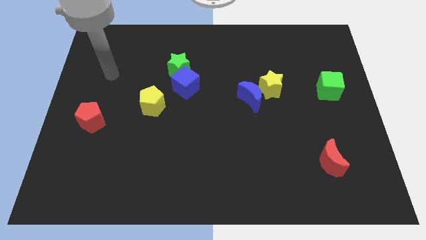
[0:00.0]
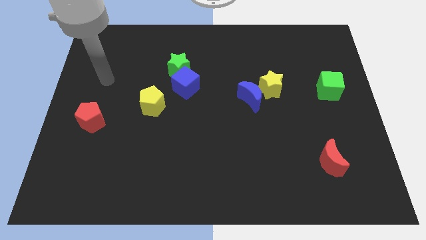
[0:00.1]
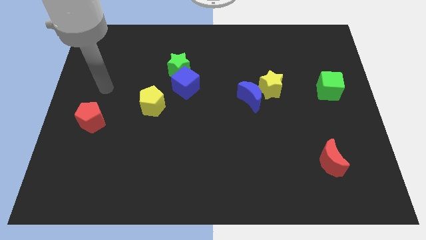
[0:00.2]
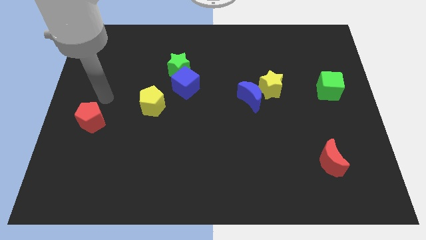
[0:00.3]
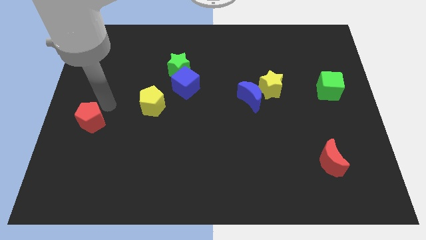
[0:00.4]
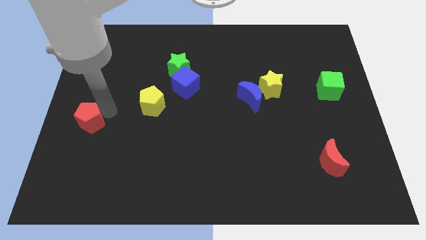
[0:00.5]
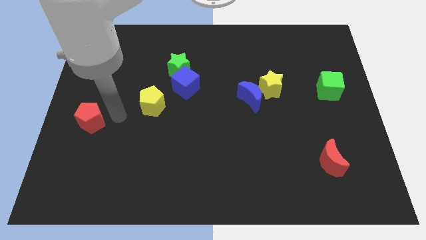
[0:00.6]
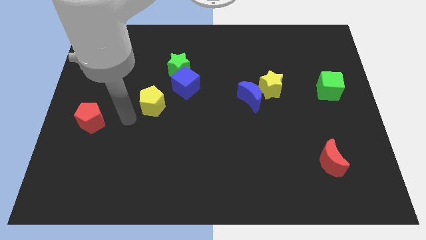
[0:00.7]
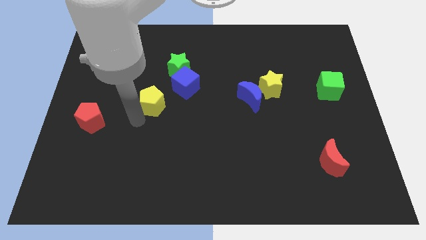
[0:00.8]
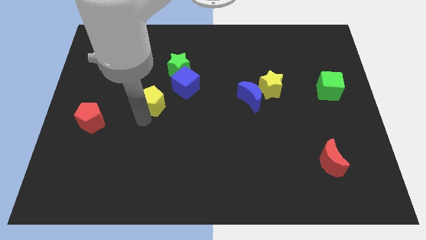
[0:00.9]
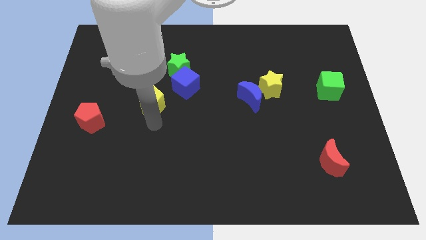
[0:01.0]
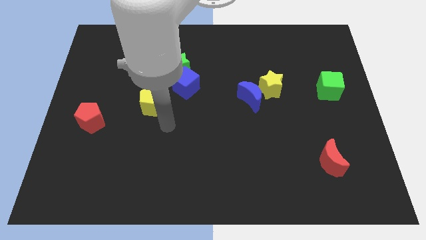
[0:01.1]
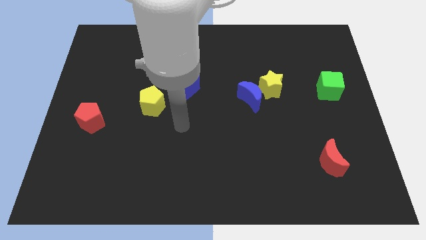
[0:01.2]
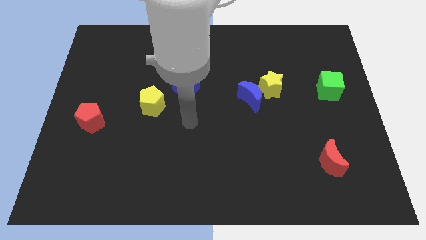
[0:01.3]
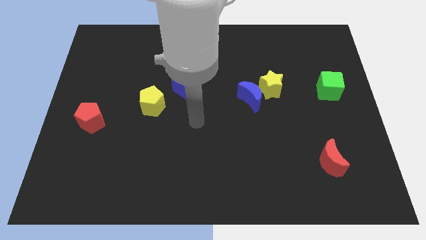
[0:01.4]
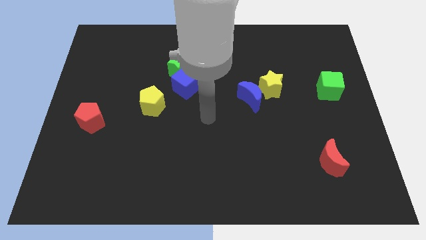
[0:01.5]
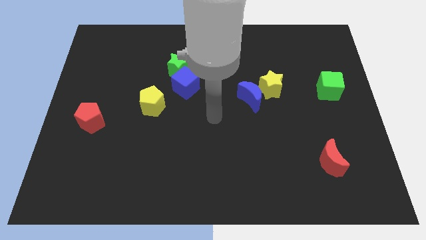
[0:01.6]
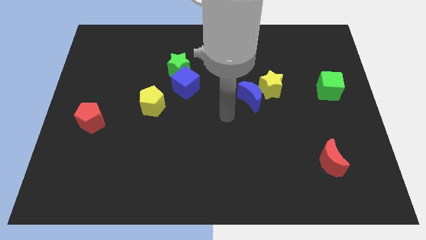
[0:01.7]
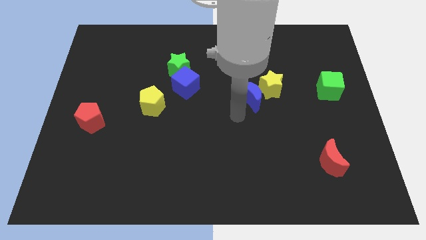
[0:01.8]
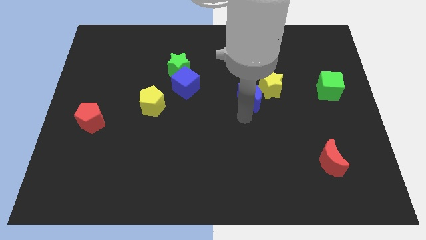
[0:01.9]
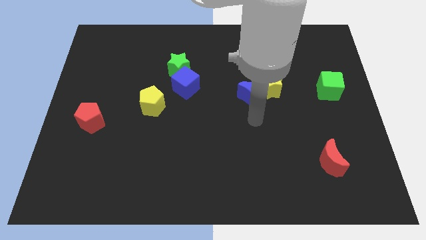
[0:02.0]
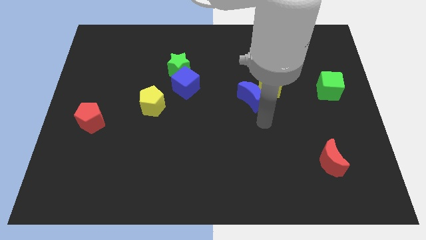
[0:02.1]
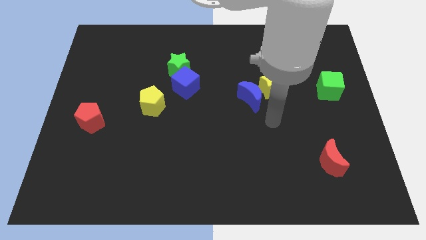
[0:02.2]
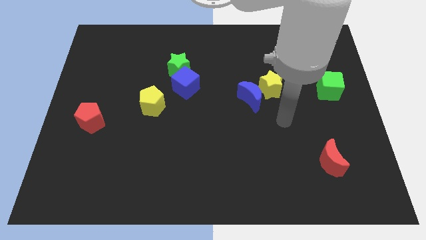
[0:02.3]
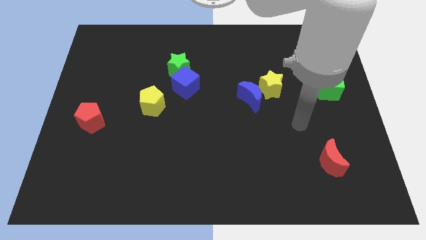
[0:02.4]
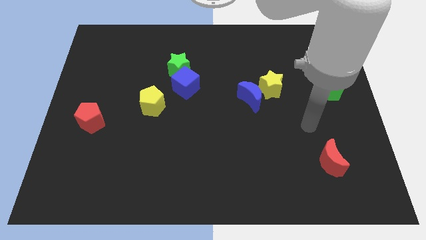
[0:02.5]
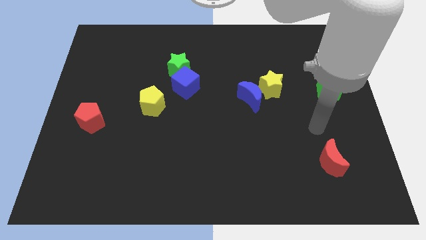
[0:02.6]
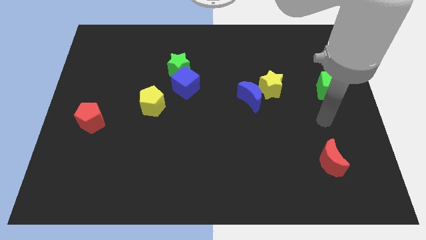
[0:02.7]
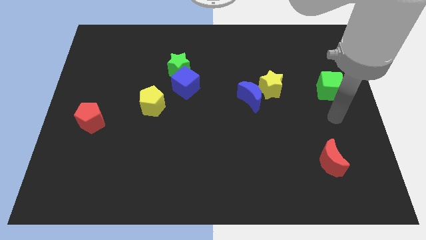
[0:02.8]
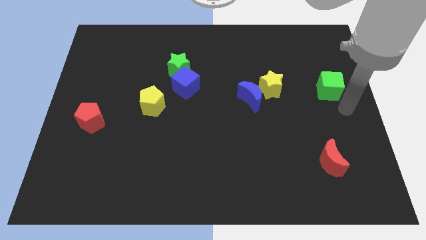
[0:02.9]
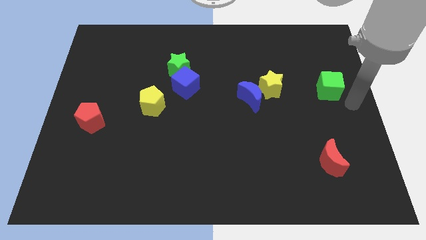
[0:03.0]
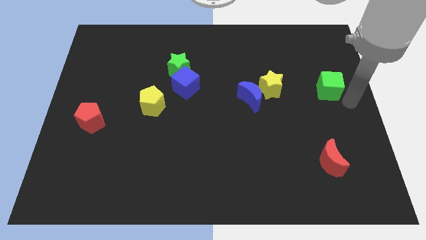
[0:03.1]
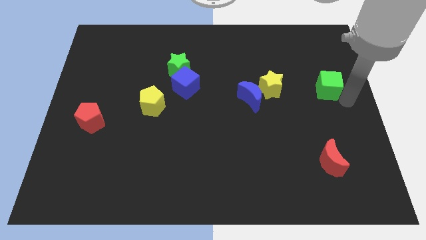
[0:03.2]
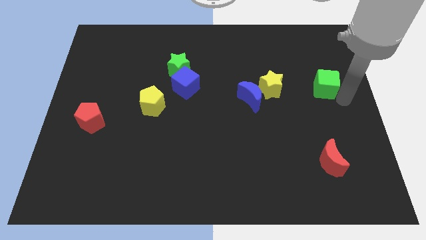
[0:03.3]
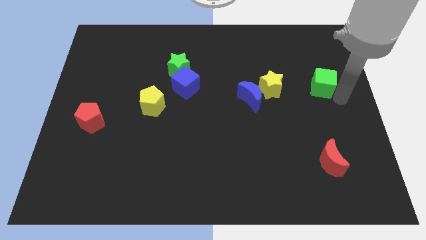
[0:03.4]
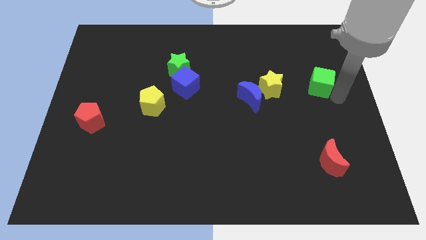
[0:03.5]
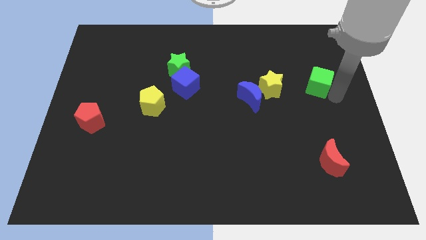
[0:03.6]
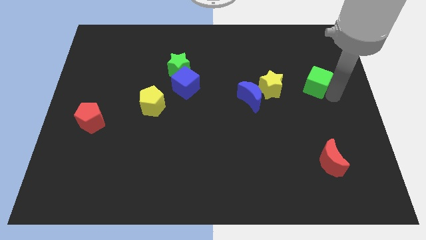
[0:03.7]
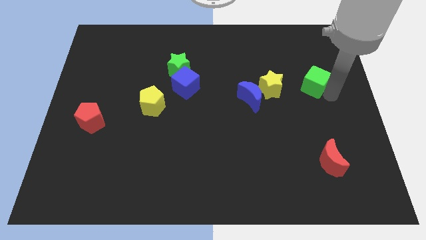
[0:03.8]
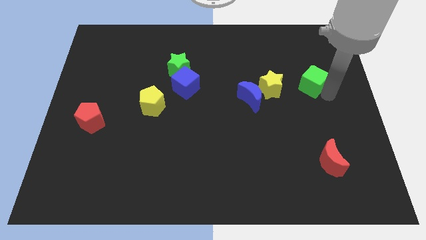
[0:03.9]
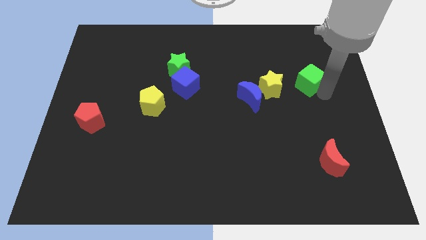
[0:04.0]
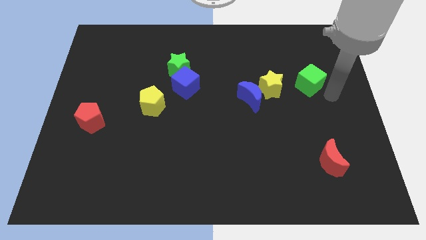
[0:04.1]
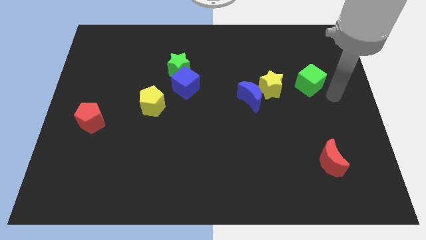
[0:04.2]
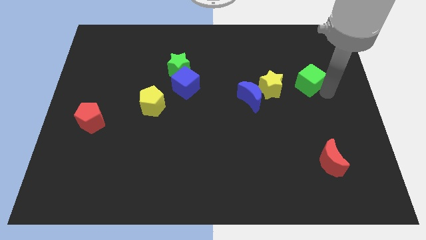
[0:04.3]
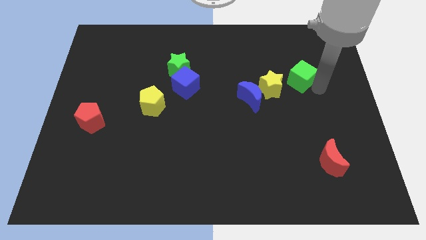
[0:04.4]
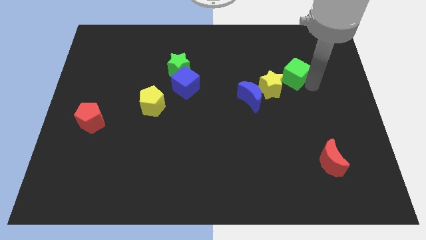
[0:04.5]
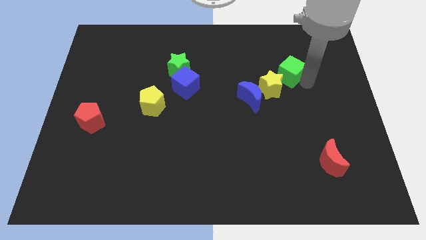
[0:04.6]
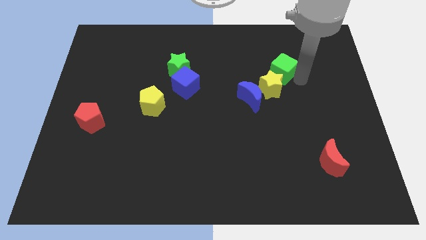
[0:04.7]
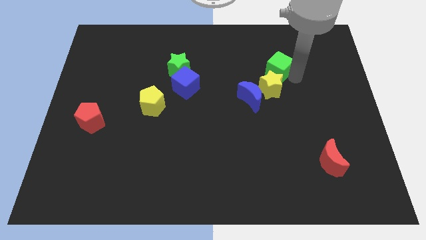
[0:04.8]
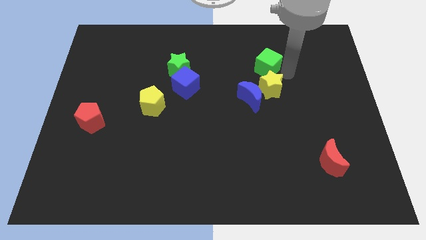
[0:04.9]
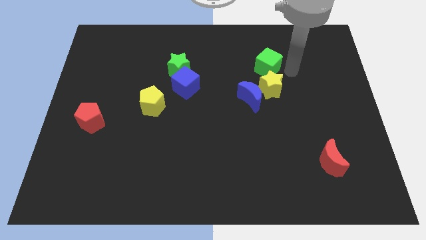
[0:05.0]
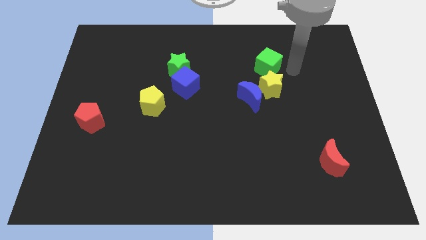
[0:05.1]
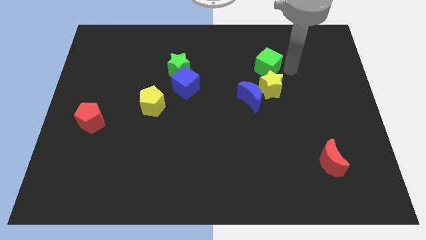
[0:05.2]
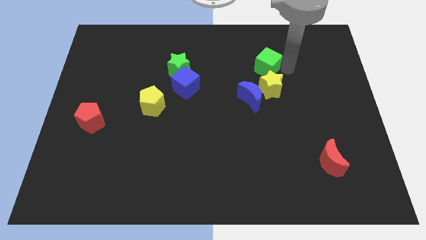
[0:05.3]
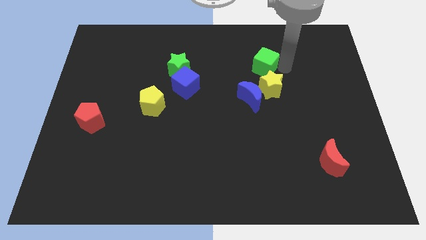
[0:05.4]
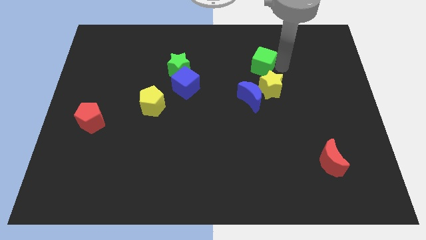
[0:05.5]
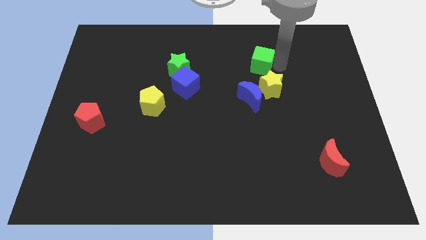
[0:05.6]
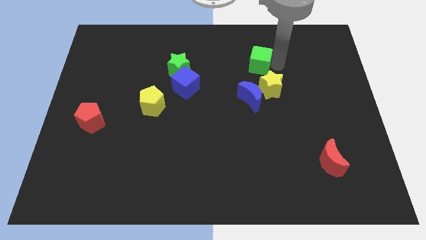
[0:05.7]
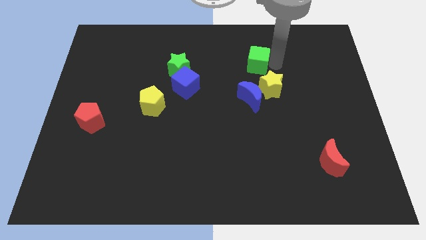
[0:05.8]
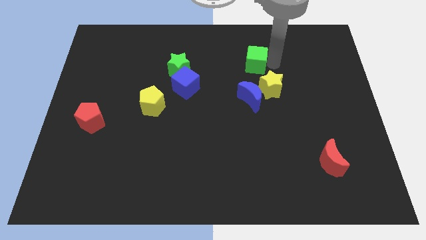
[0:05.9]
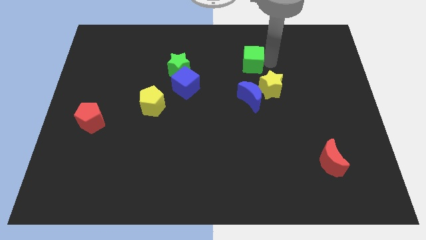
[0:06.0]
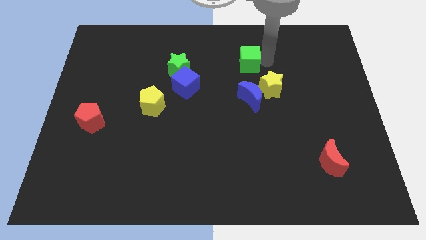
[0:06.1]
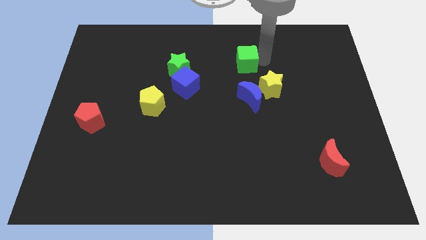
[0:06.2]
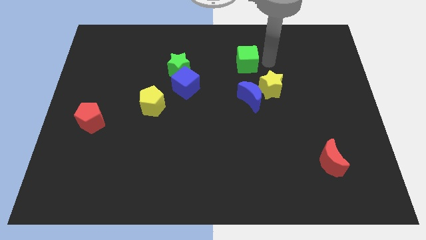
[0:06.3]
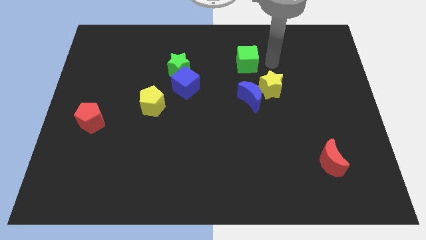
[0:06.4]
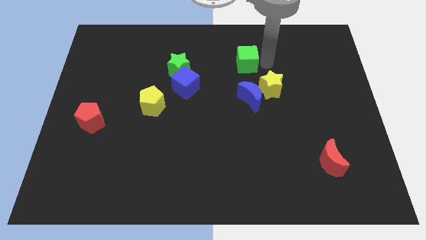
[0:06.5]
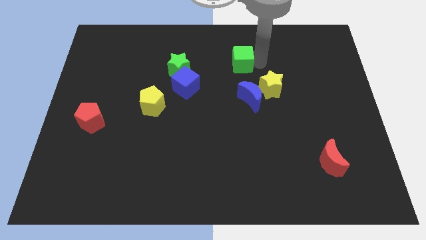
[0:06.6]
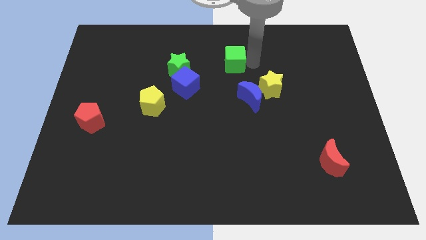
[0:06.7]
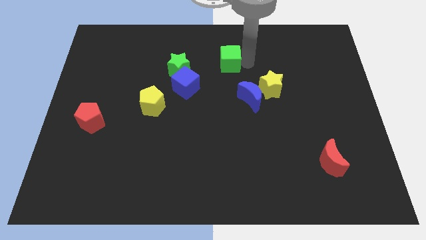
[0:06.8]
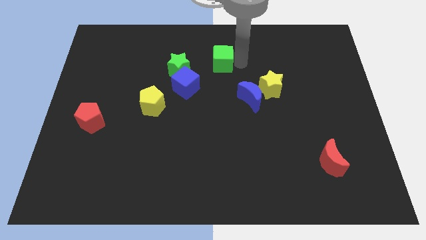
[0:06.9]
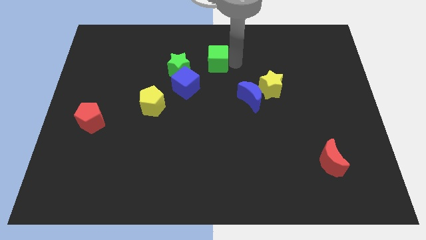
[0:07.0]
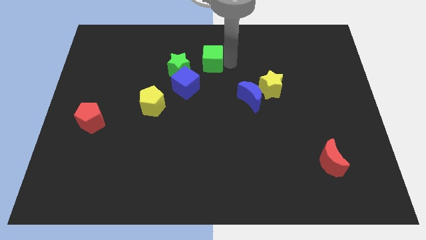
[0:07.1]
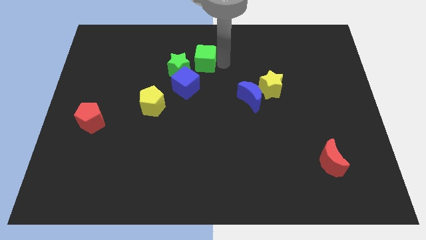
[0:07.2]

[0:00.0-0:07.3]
push the green cube above the blue cube
